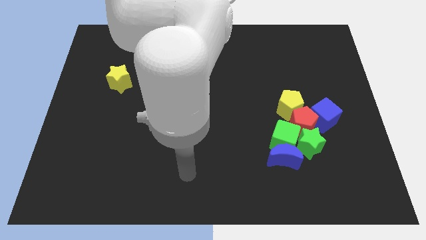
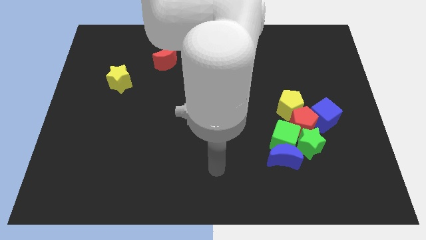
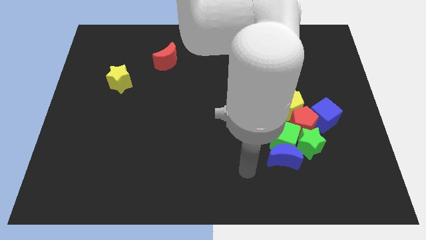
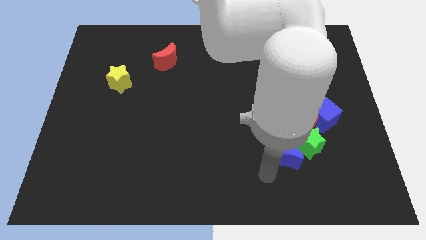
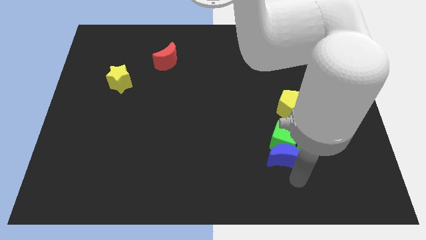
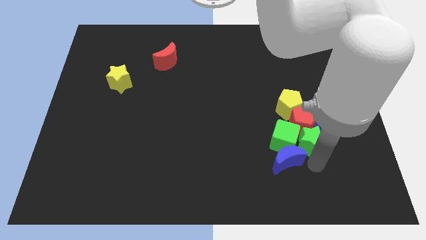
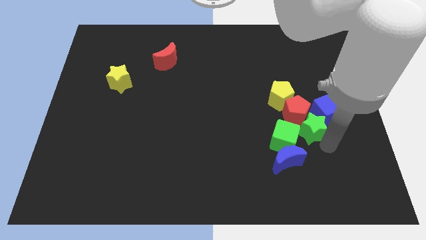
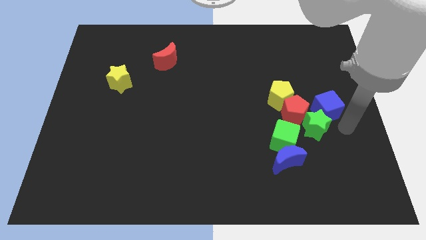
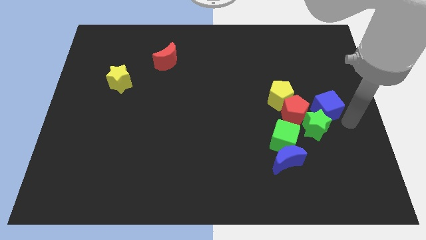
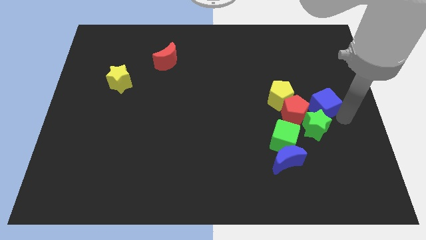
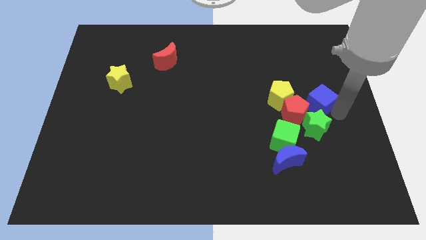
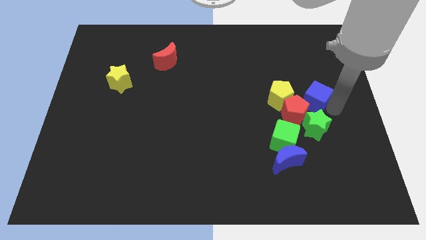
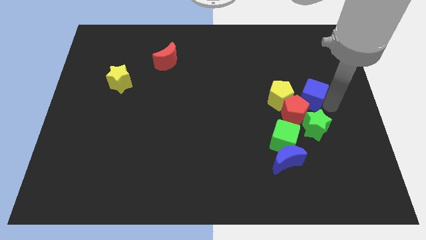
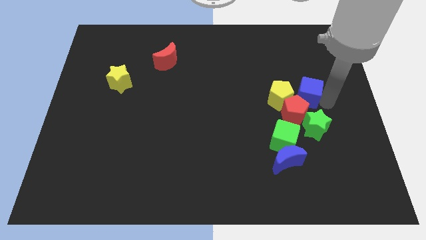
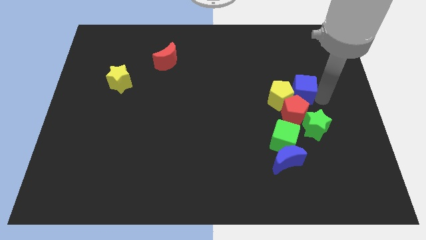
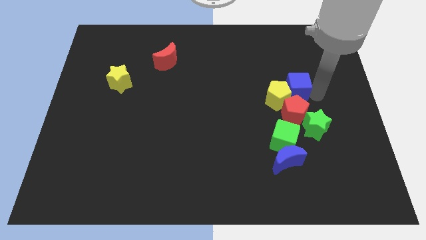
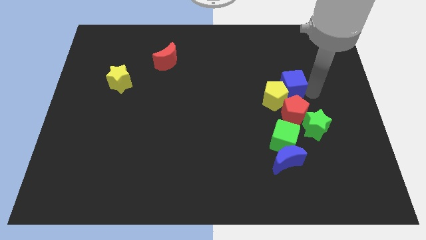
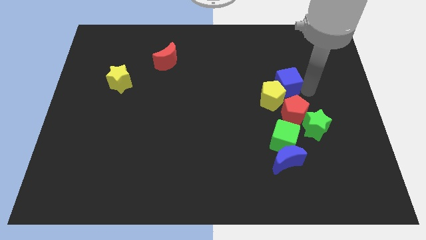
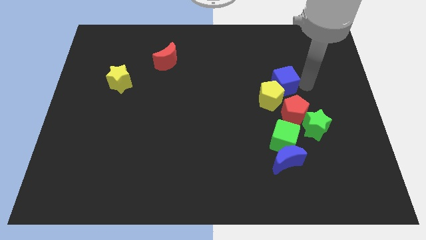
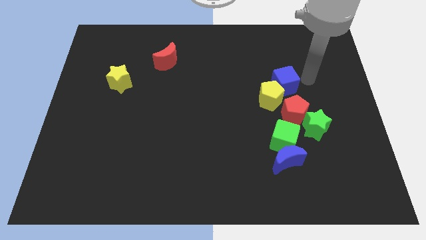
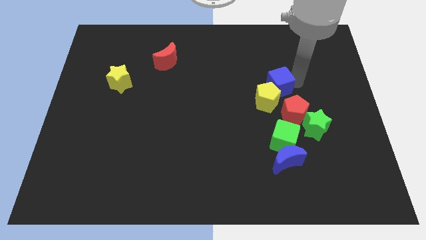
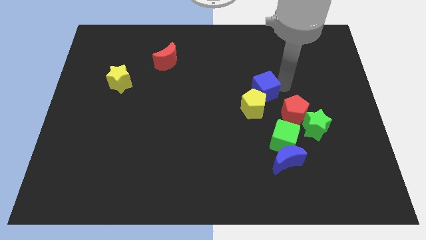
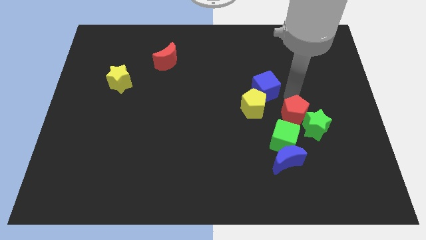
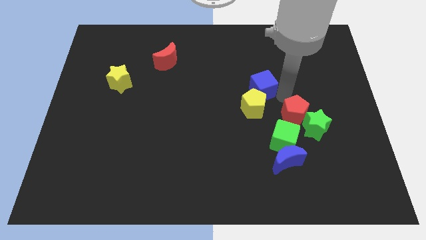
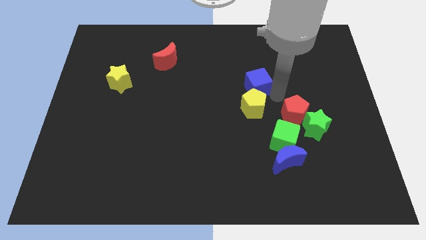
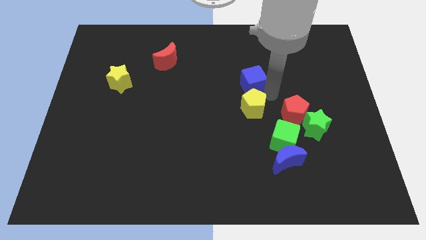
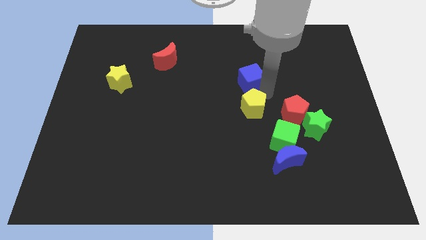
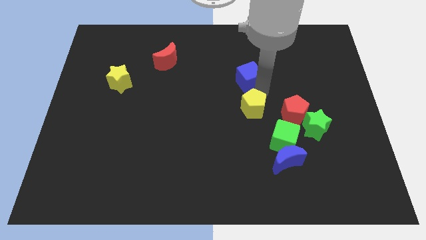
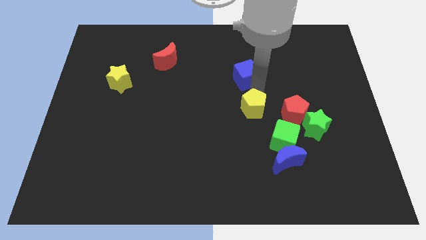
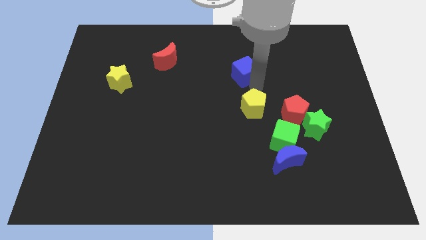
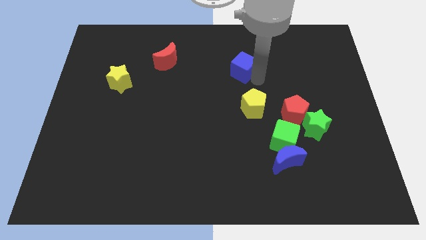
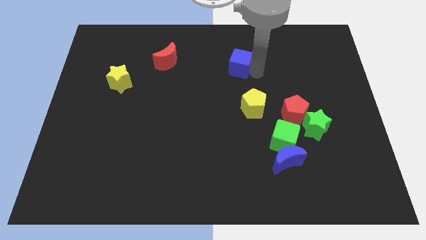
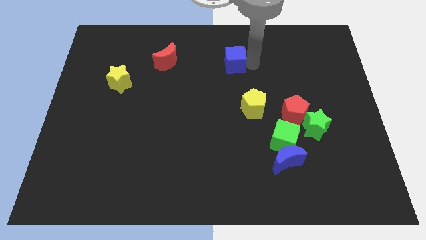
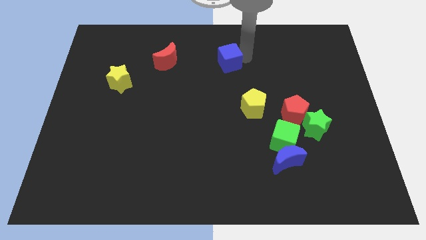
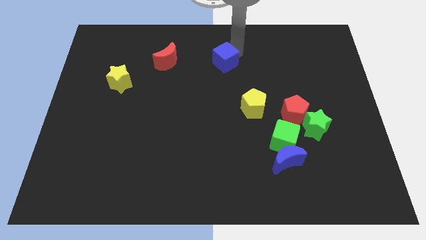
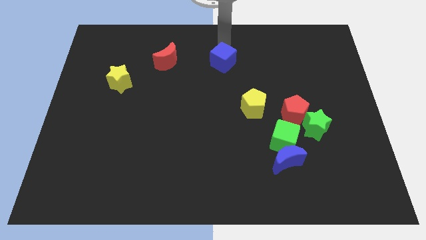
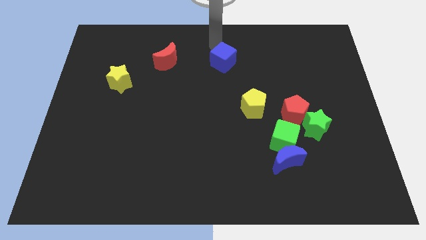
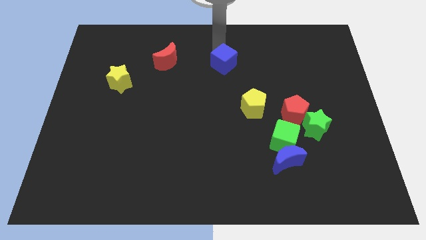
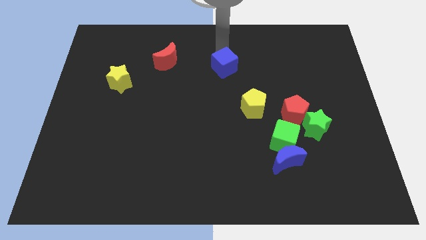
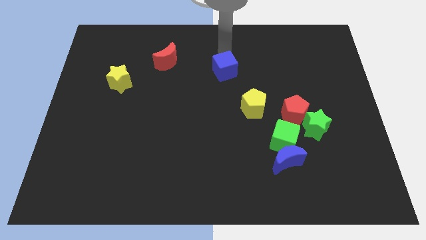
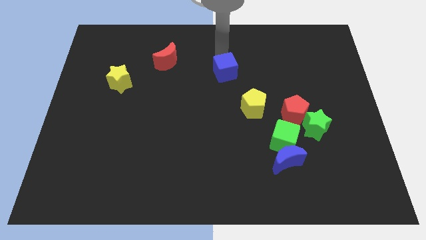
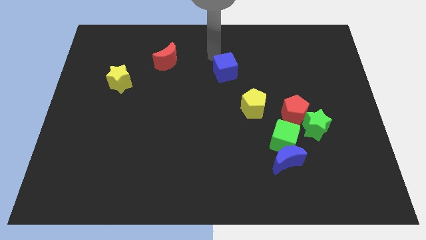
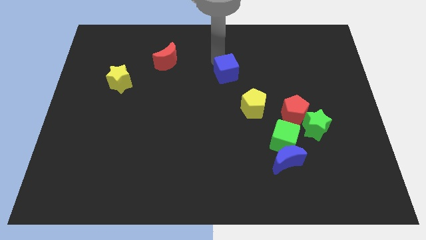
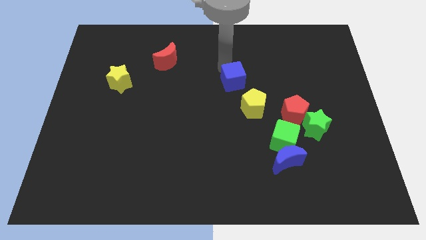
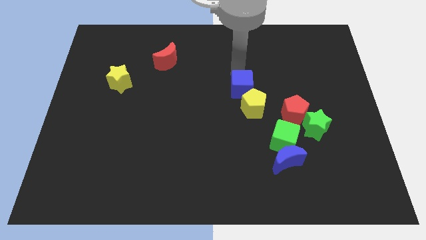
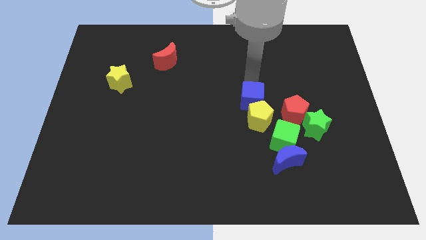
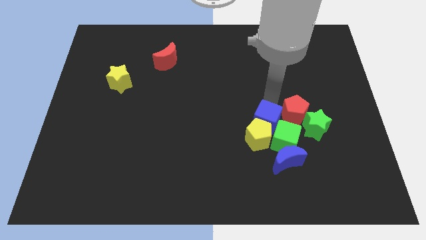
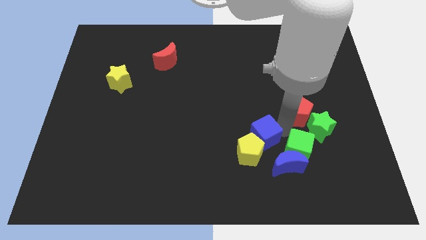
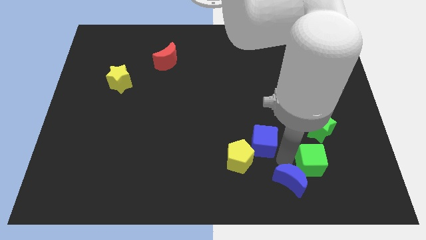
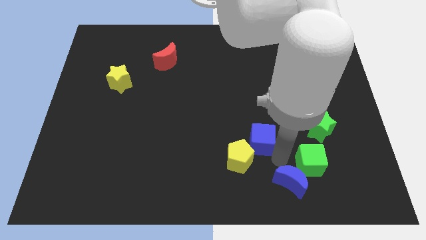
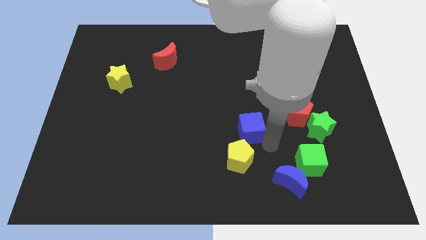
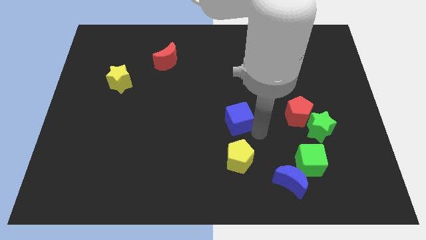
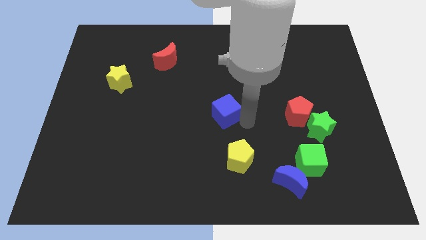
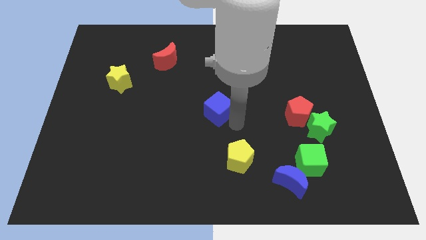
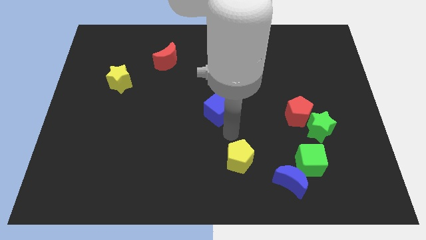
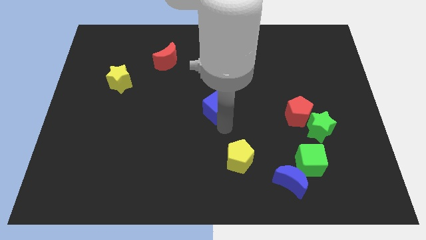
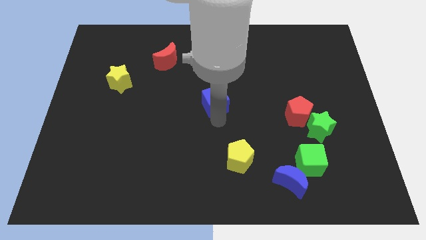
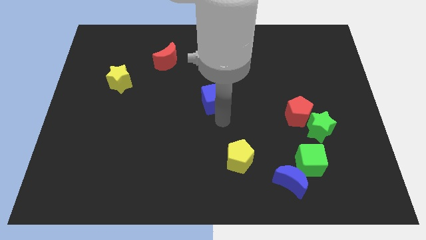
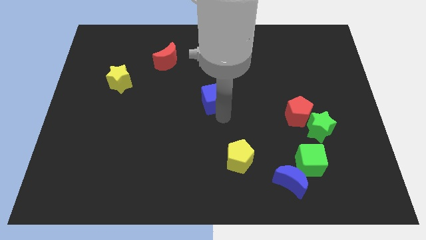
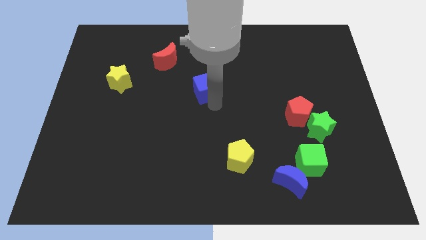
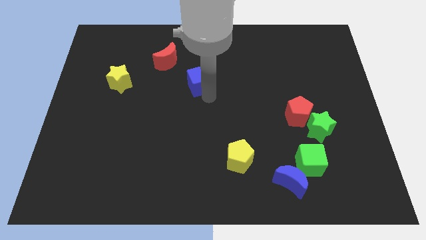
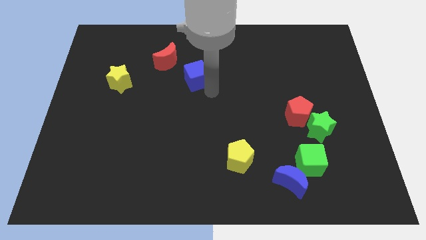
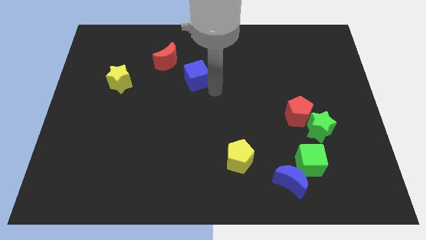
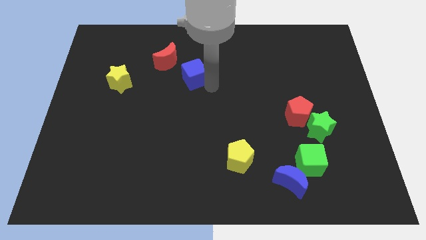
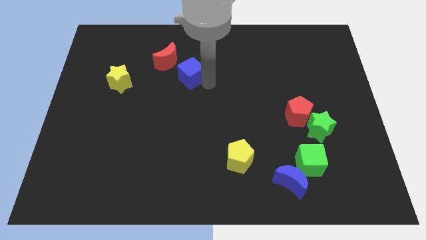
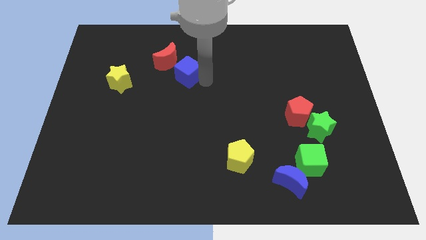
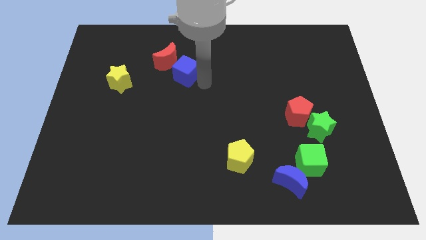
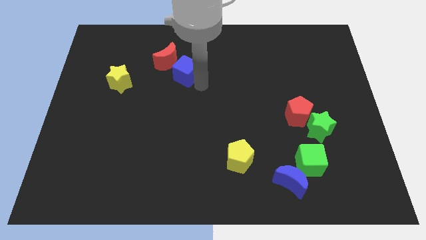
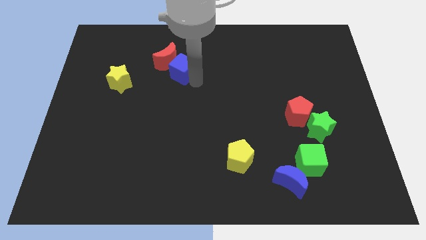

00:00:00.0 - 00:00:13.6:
put the blue cube towards the red moon

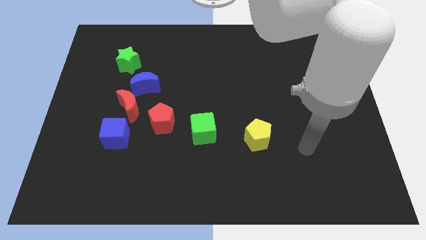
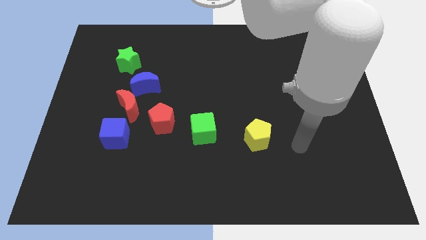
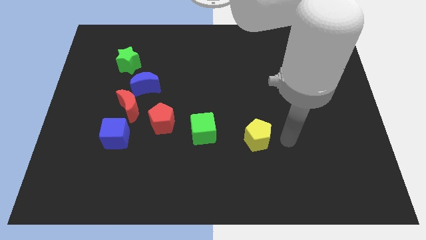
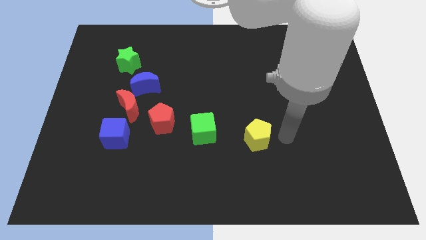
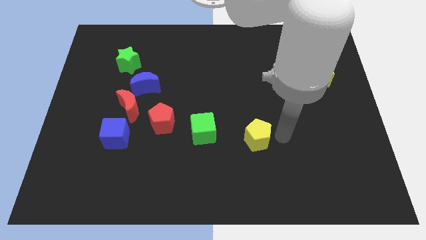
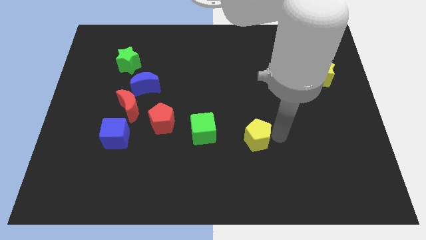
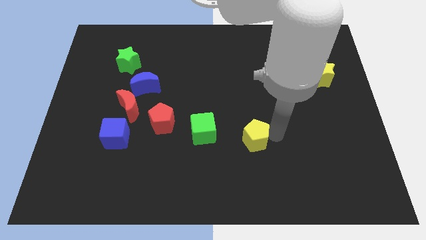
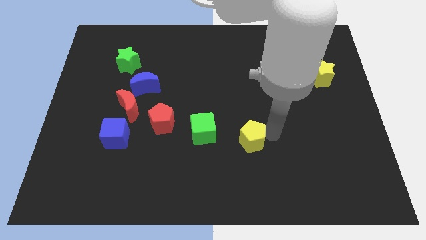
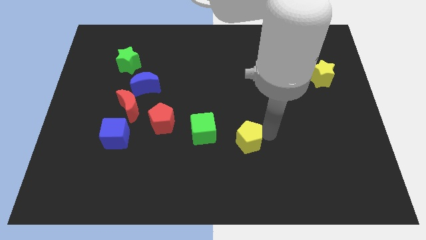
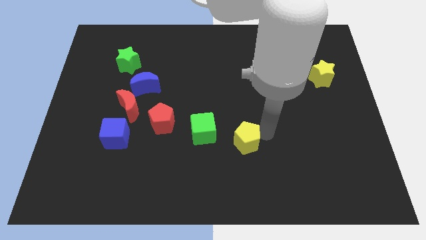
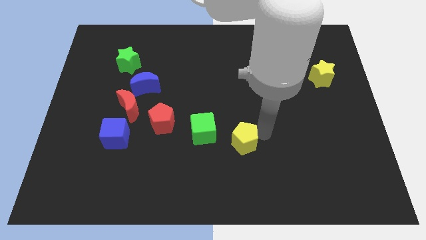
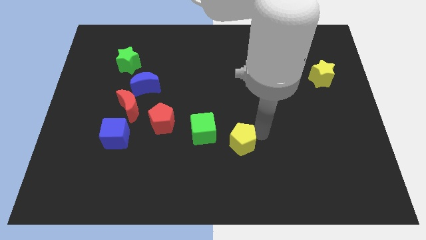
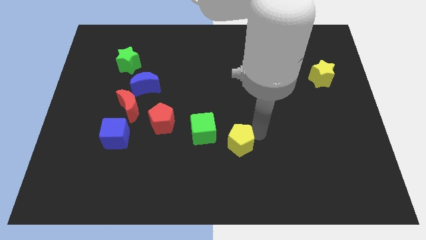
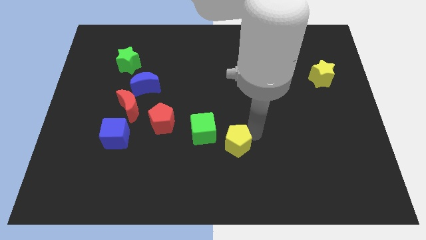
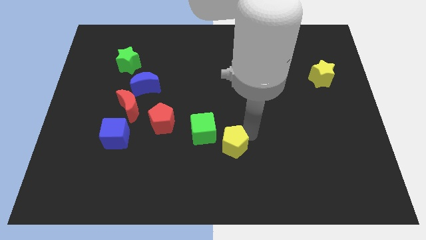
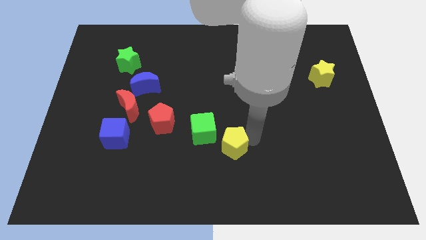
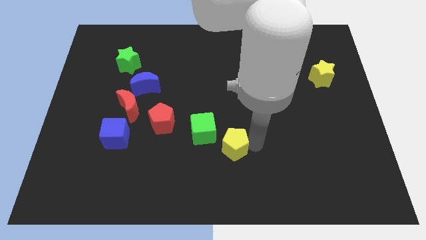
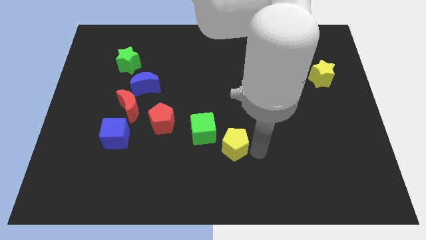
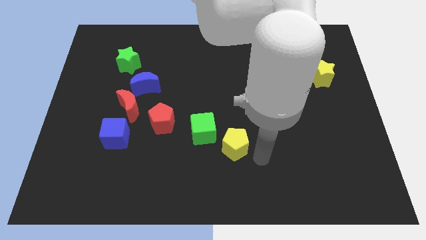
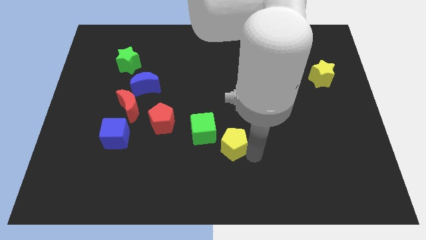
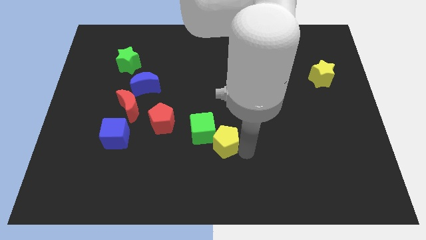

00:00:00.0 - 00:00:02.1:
move the yellow pentagon to the green cube
